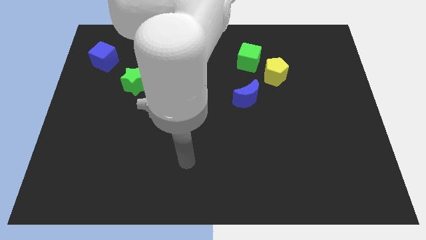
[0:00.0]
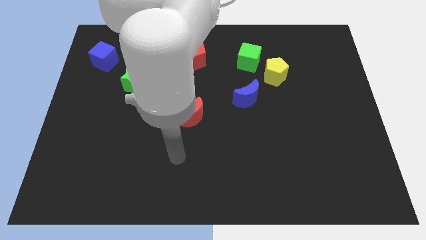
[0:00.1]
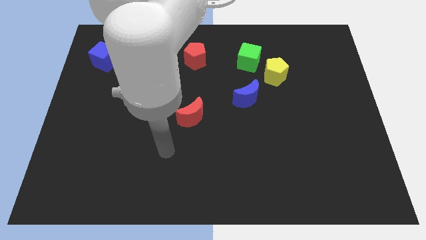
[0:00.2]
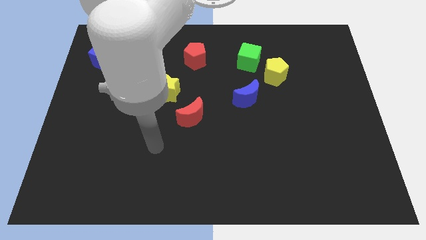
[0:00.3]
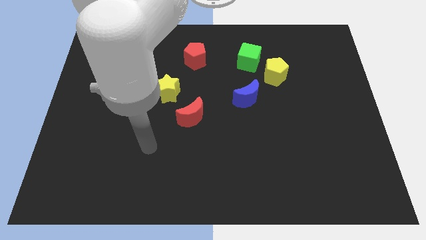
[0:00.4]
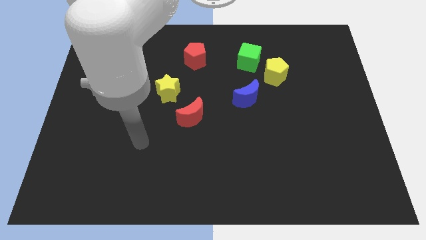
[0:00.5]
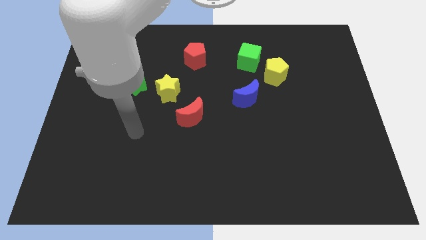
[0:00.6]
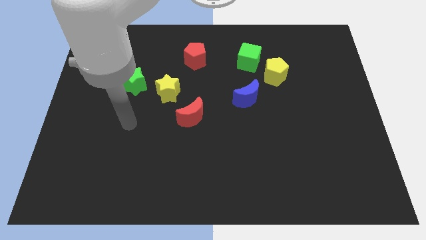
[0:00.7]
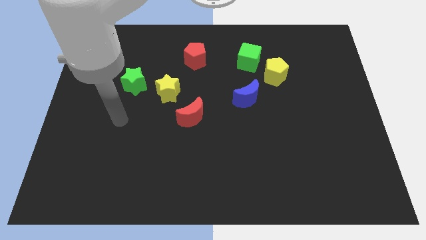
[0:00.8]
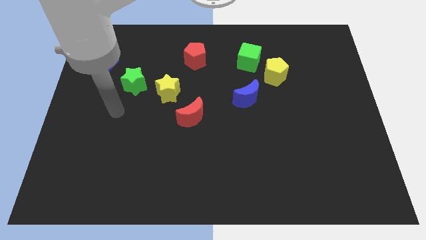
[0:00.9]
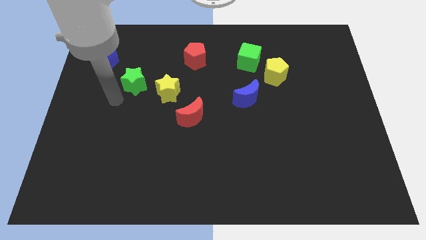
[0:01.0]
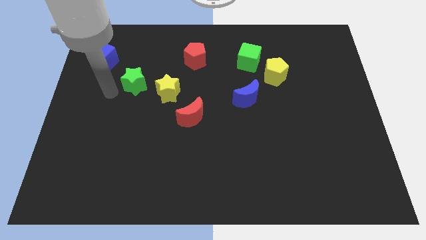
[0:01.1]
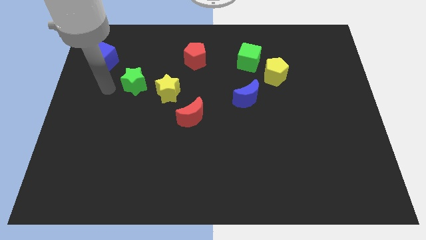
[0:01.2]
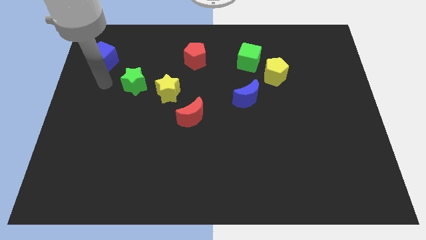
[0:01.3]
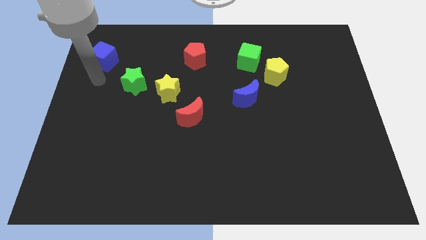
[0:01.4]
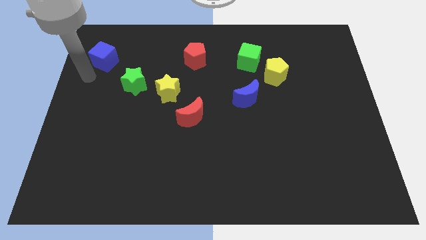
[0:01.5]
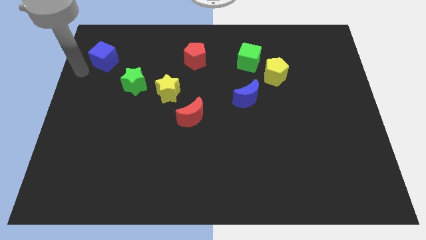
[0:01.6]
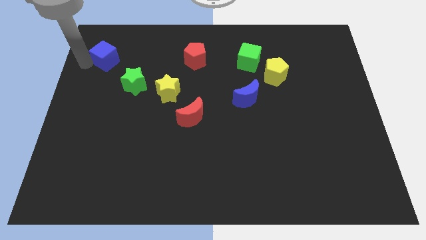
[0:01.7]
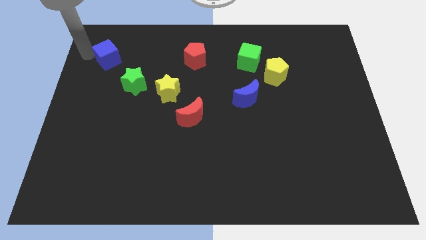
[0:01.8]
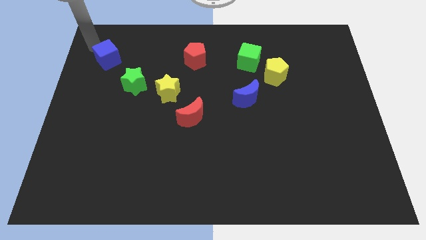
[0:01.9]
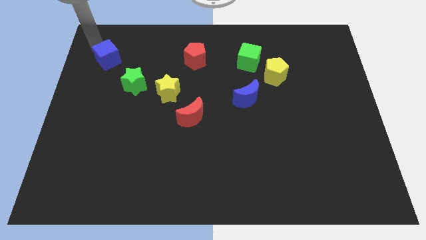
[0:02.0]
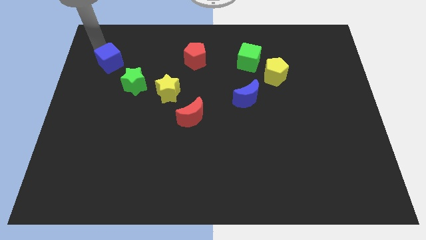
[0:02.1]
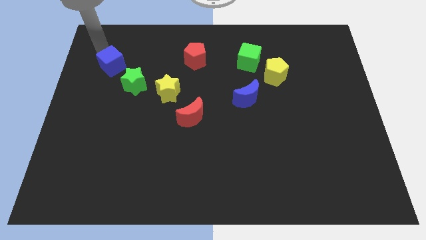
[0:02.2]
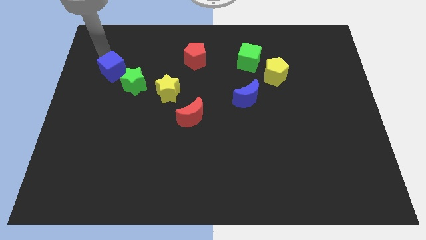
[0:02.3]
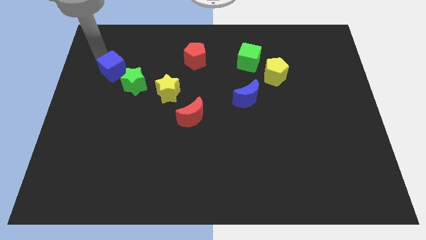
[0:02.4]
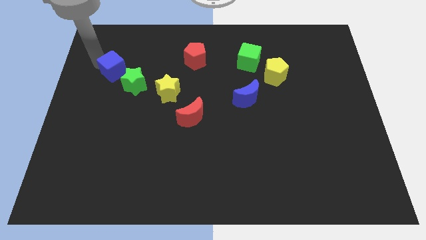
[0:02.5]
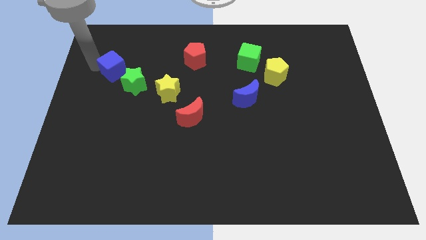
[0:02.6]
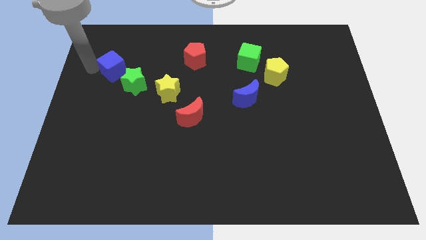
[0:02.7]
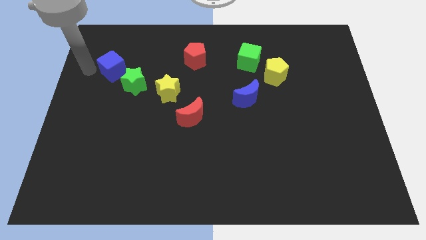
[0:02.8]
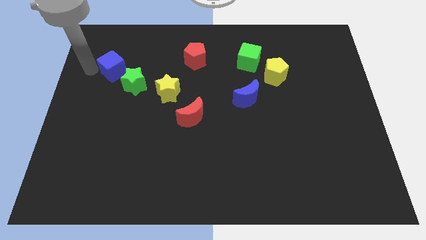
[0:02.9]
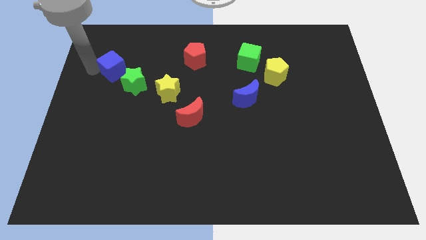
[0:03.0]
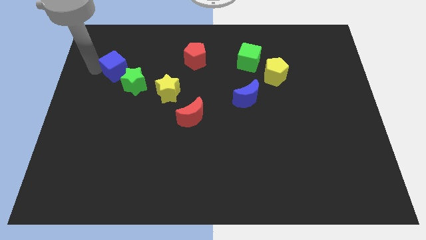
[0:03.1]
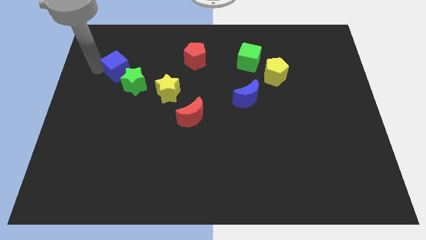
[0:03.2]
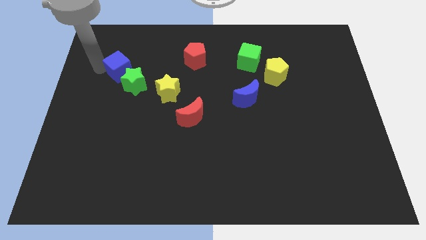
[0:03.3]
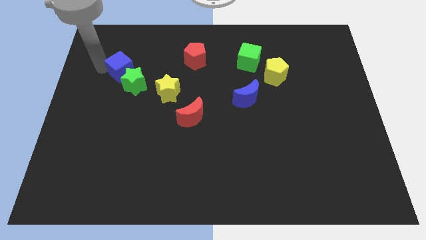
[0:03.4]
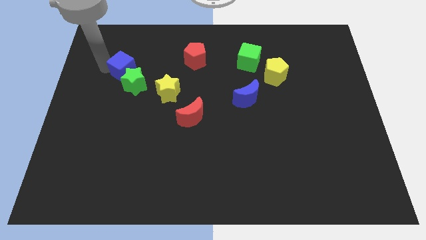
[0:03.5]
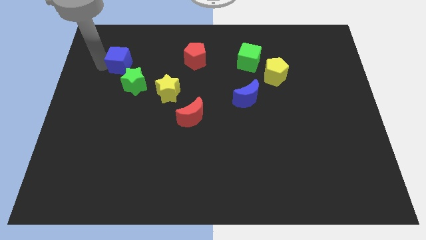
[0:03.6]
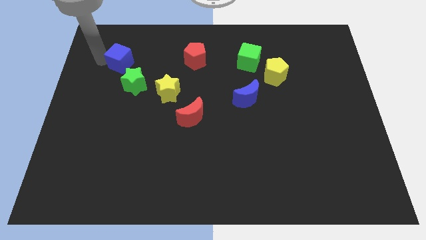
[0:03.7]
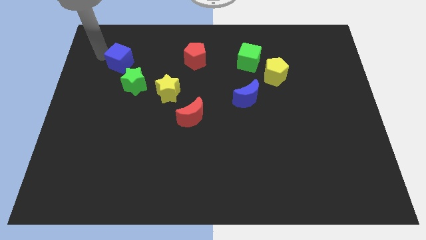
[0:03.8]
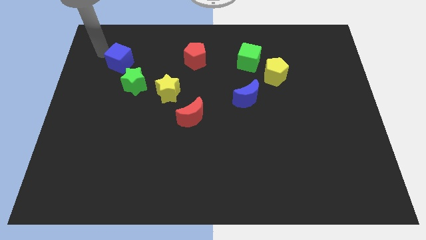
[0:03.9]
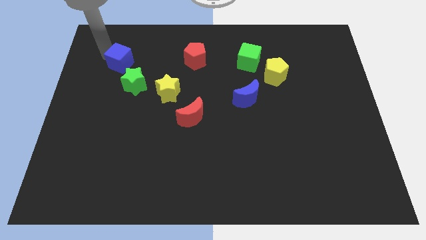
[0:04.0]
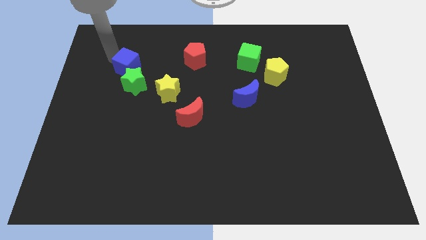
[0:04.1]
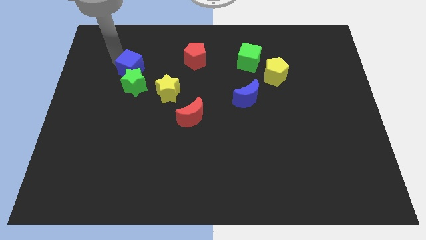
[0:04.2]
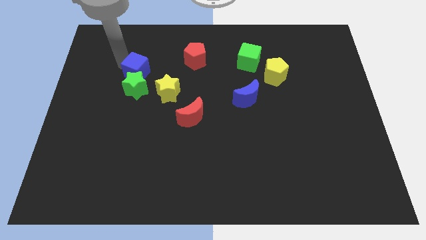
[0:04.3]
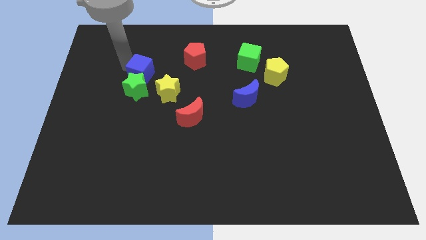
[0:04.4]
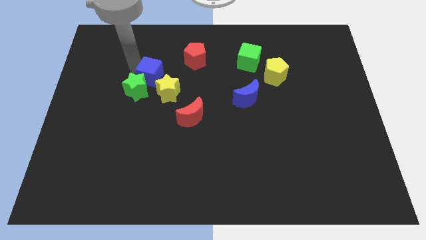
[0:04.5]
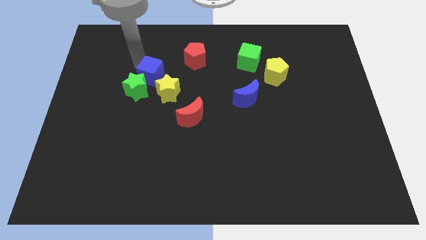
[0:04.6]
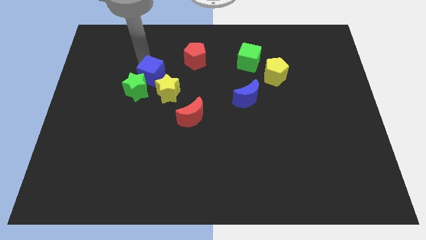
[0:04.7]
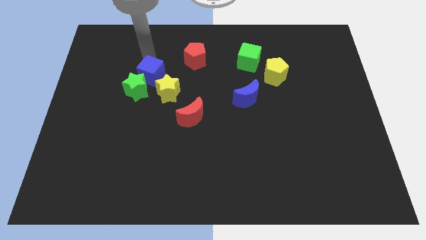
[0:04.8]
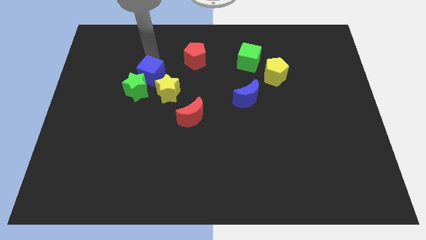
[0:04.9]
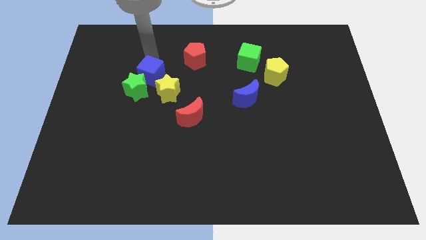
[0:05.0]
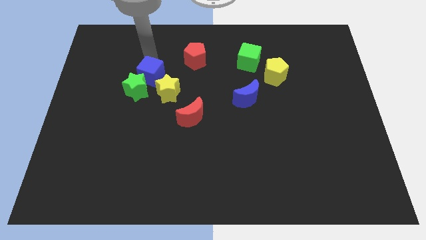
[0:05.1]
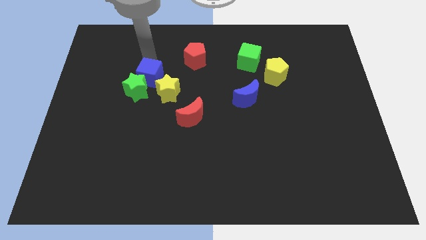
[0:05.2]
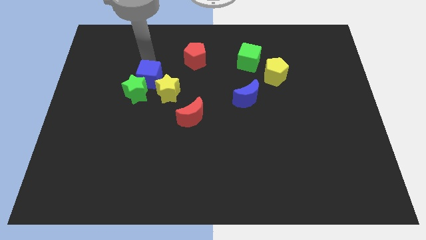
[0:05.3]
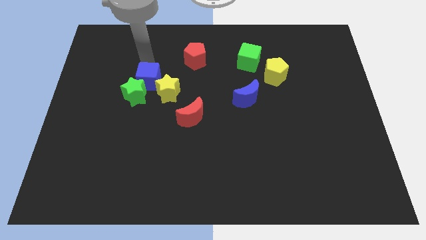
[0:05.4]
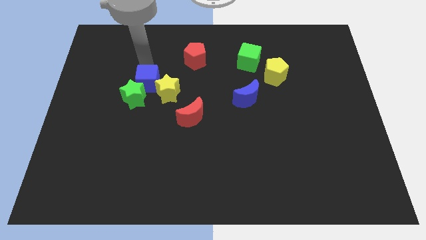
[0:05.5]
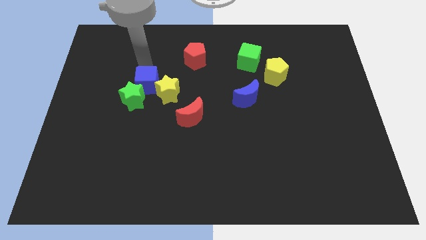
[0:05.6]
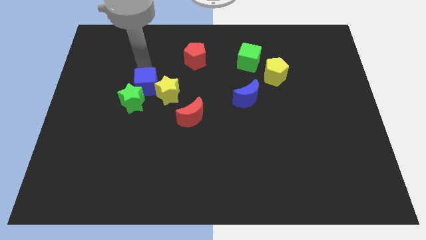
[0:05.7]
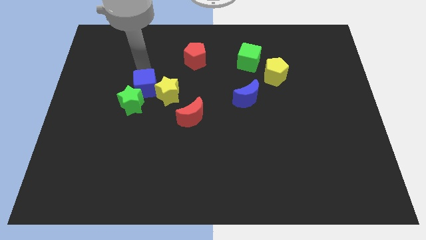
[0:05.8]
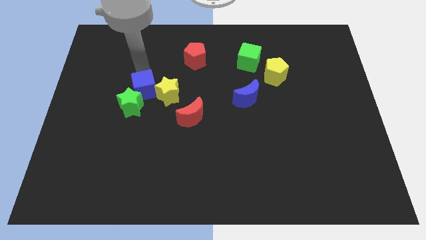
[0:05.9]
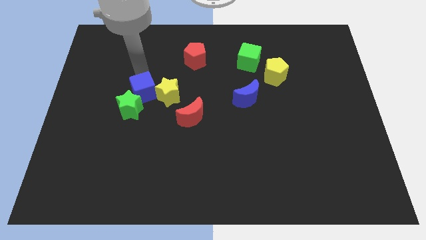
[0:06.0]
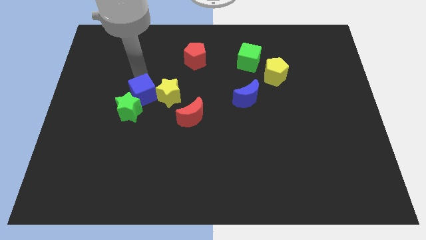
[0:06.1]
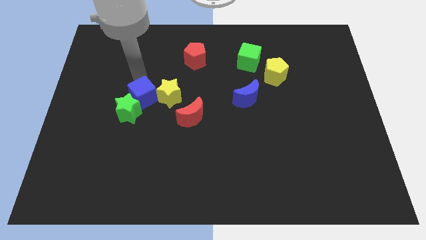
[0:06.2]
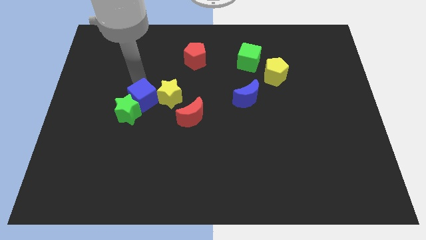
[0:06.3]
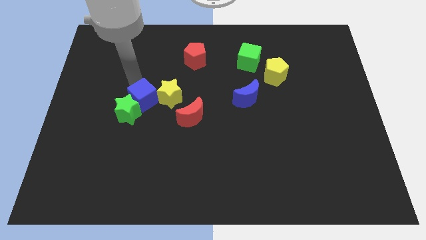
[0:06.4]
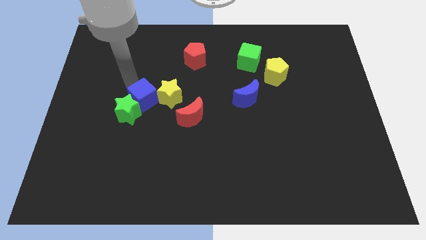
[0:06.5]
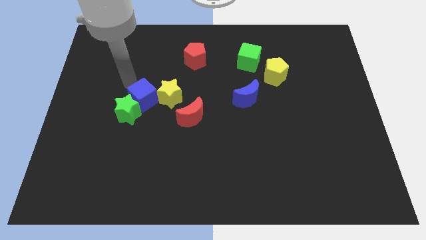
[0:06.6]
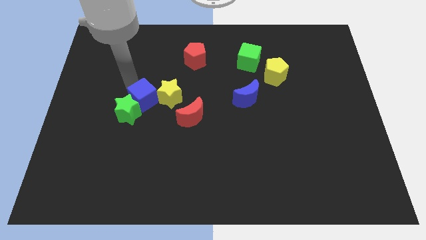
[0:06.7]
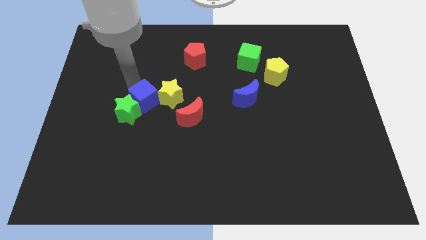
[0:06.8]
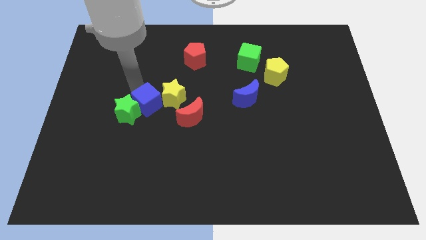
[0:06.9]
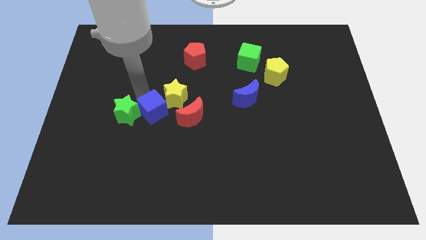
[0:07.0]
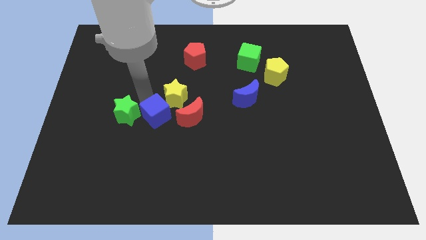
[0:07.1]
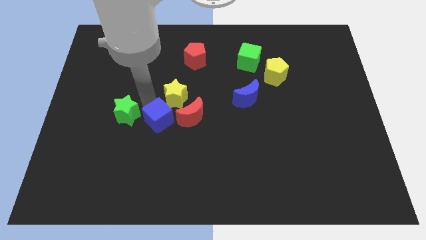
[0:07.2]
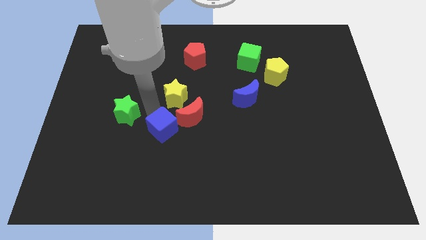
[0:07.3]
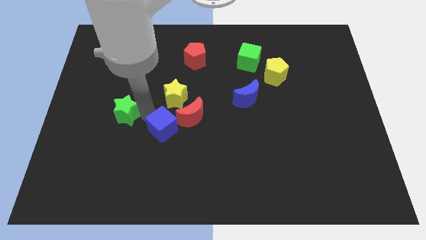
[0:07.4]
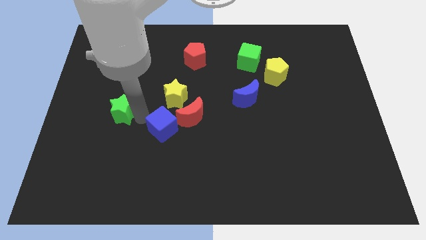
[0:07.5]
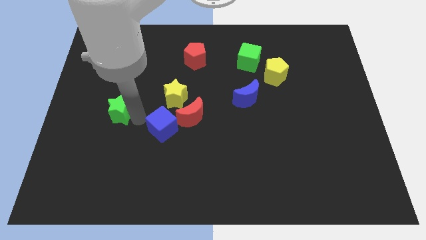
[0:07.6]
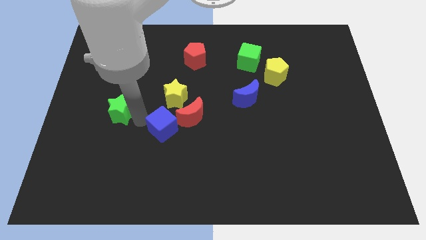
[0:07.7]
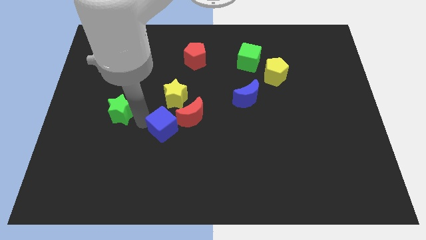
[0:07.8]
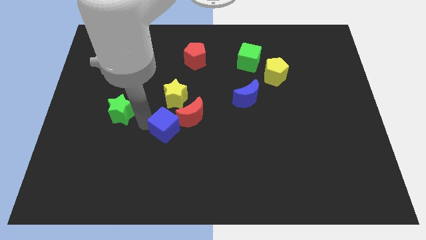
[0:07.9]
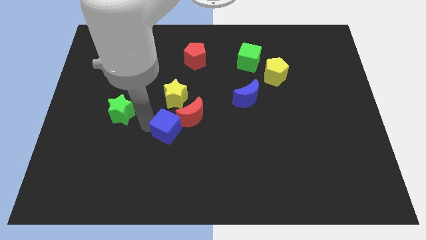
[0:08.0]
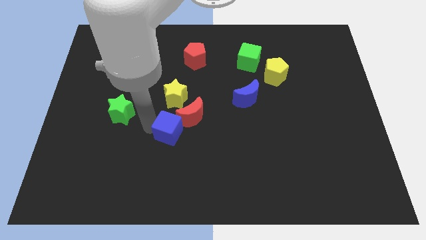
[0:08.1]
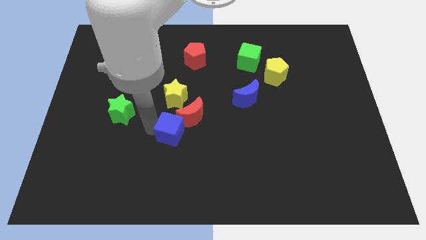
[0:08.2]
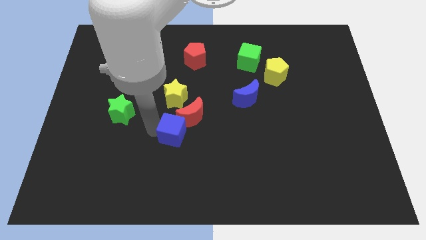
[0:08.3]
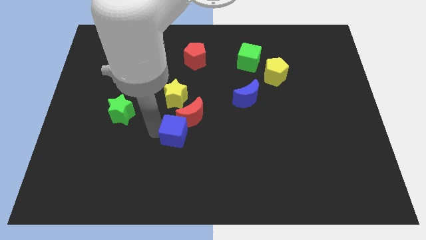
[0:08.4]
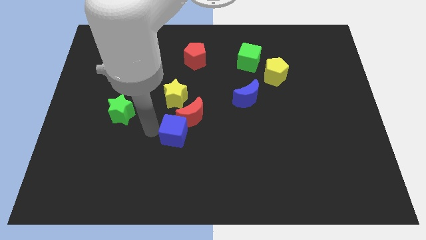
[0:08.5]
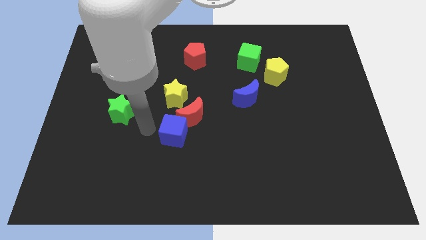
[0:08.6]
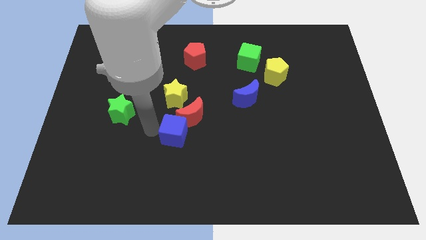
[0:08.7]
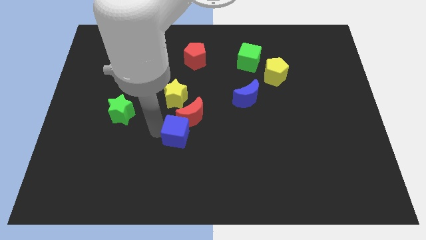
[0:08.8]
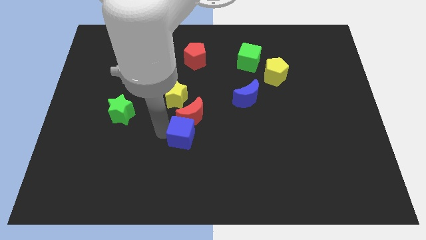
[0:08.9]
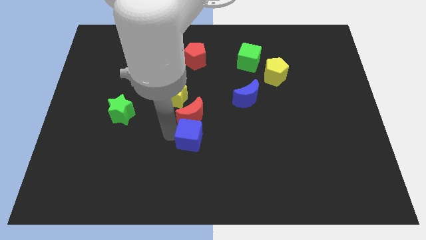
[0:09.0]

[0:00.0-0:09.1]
move the blue cube to the bottom right side of the red moon
